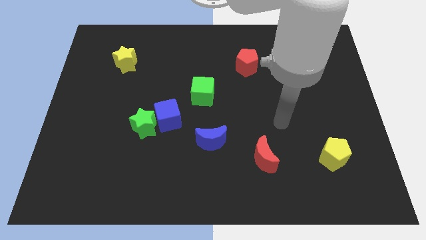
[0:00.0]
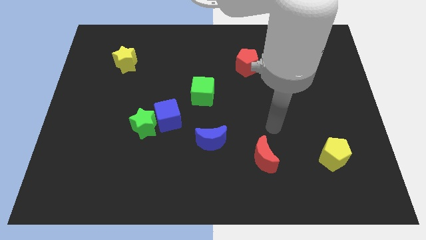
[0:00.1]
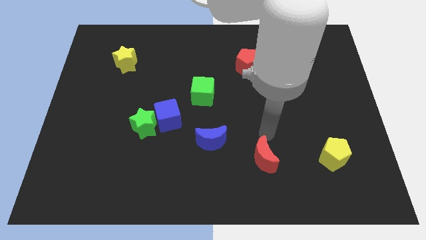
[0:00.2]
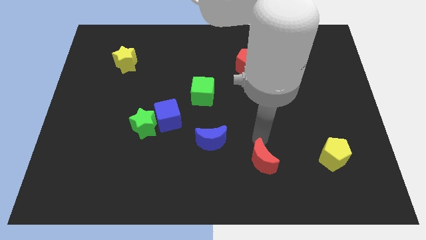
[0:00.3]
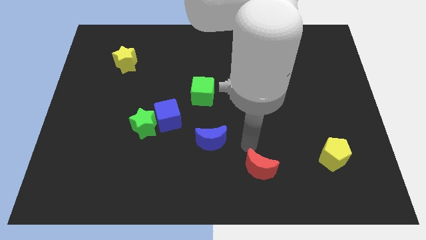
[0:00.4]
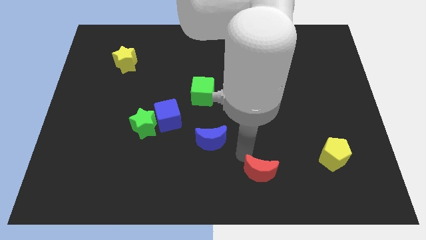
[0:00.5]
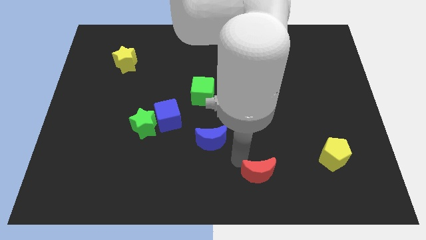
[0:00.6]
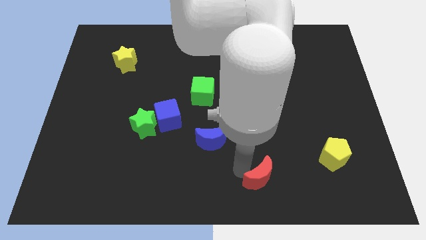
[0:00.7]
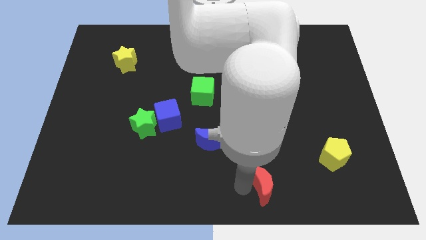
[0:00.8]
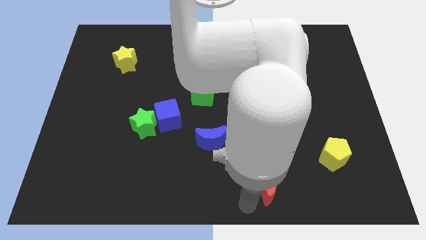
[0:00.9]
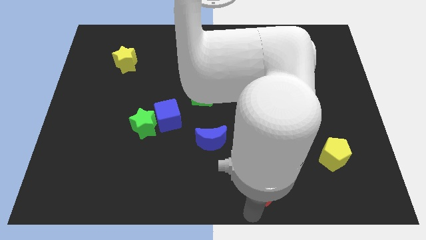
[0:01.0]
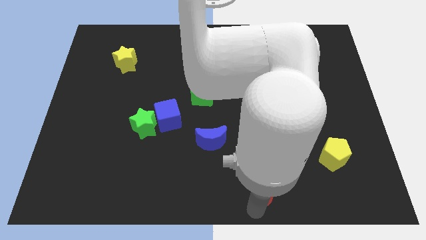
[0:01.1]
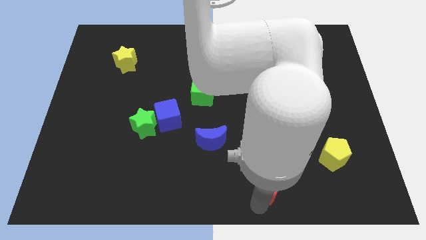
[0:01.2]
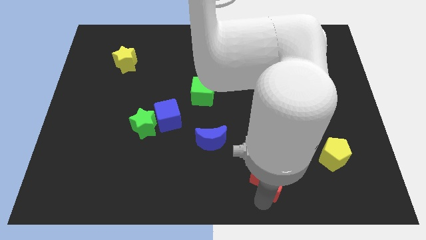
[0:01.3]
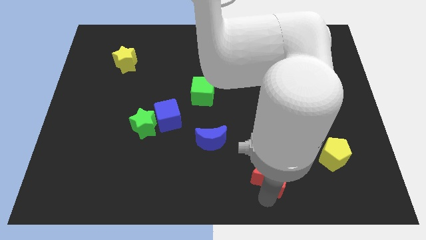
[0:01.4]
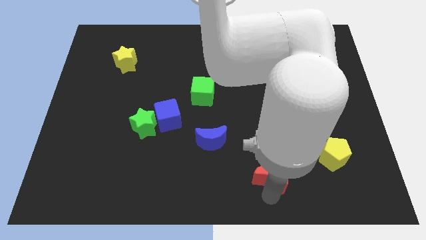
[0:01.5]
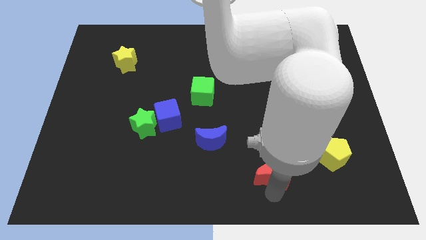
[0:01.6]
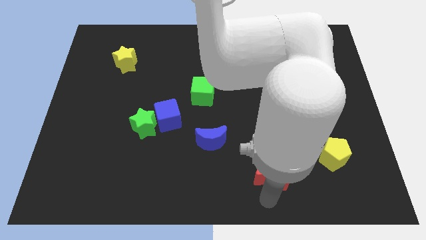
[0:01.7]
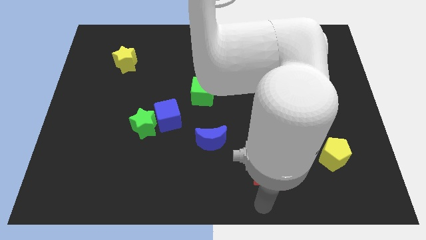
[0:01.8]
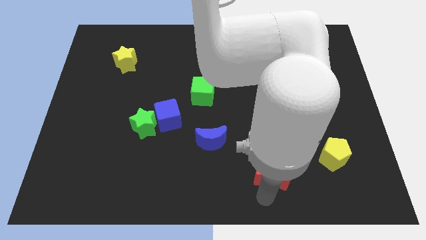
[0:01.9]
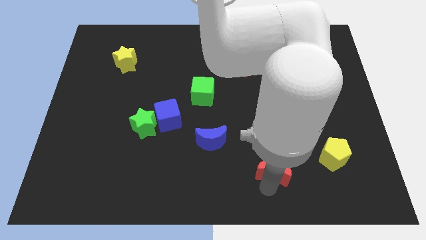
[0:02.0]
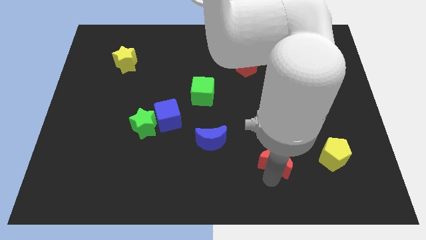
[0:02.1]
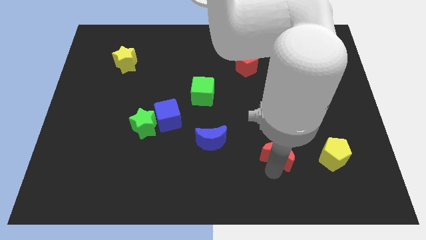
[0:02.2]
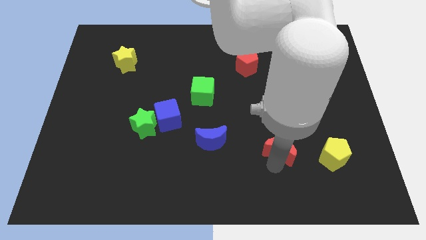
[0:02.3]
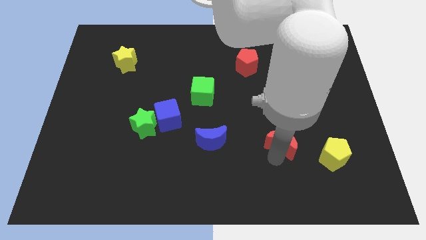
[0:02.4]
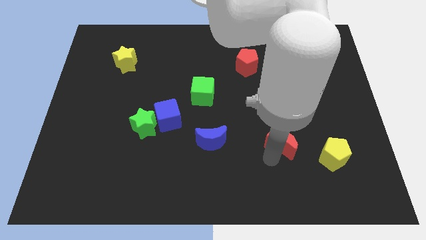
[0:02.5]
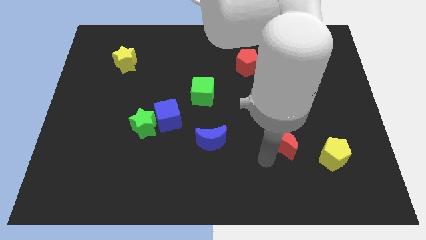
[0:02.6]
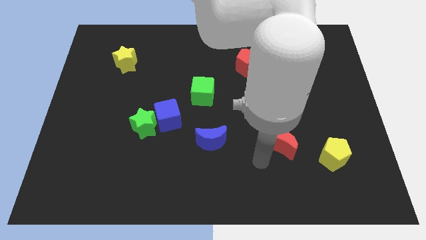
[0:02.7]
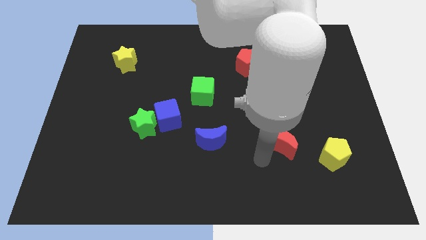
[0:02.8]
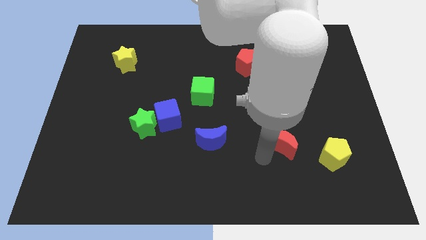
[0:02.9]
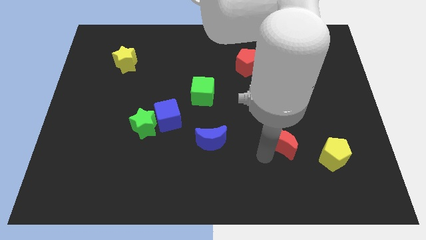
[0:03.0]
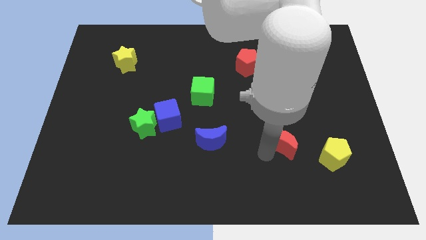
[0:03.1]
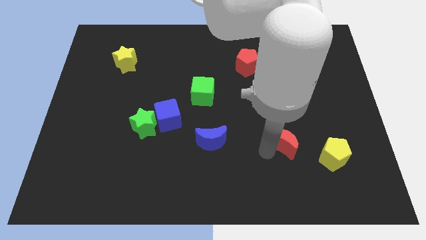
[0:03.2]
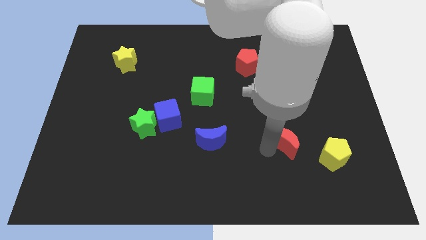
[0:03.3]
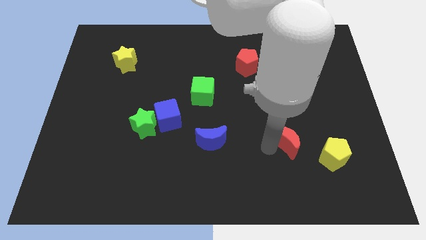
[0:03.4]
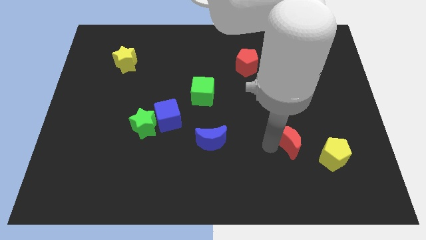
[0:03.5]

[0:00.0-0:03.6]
push the red moon upwards and to the right a bit

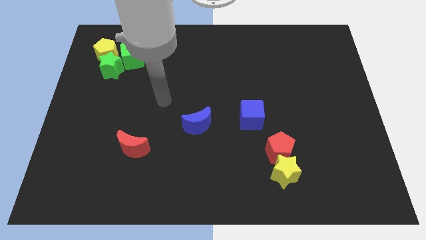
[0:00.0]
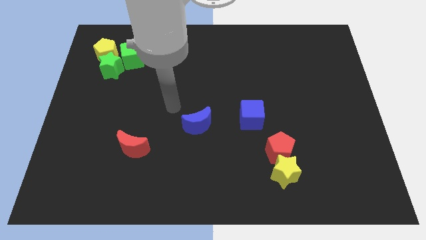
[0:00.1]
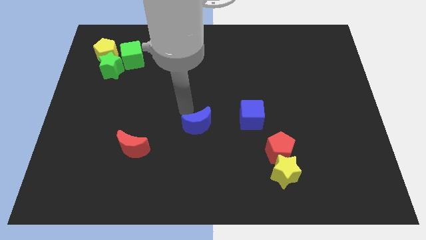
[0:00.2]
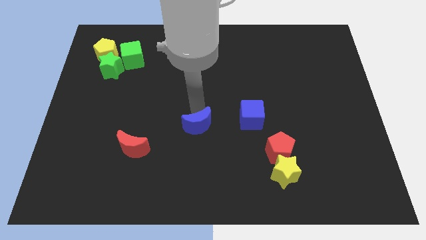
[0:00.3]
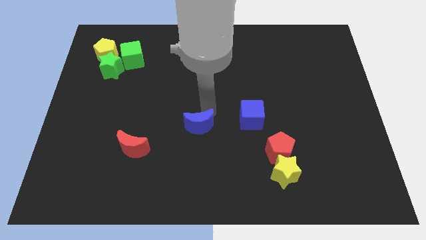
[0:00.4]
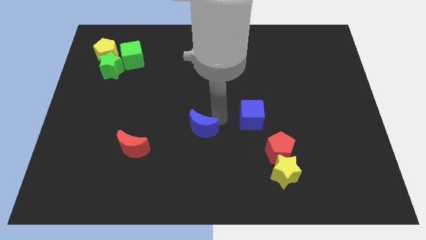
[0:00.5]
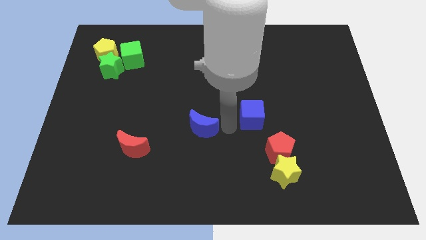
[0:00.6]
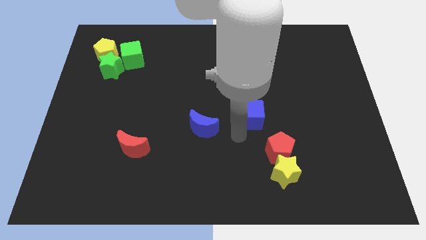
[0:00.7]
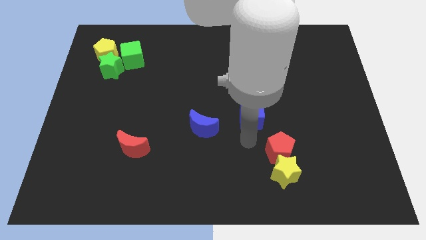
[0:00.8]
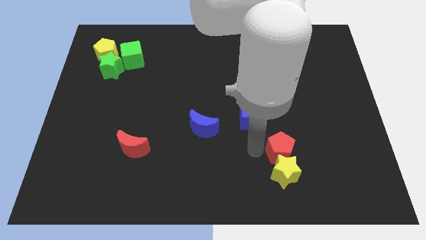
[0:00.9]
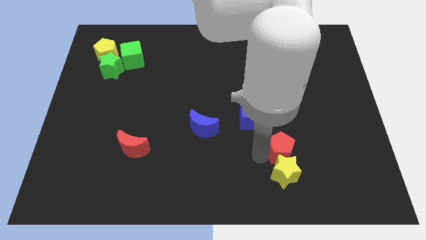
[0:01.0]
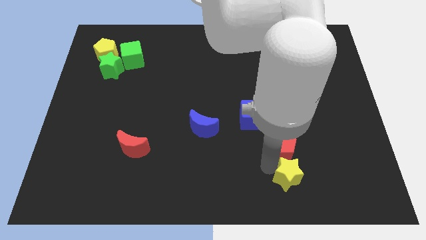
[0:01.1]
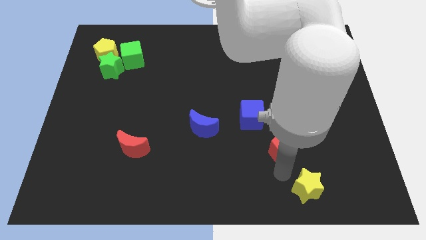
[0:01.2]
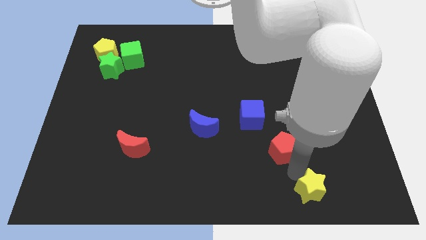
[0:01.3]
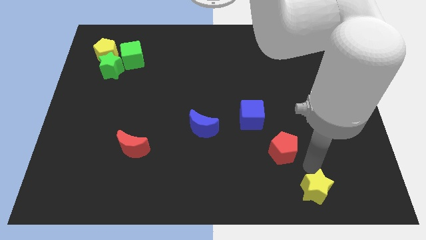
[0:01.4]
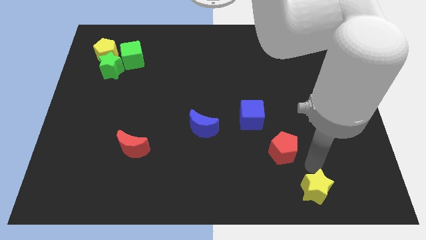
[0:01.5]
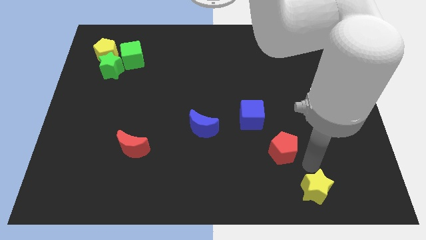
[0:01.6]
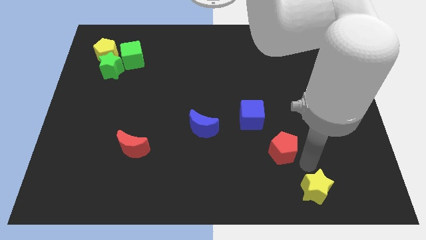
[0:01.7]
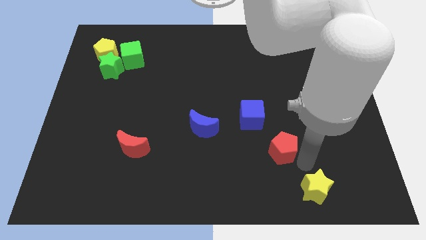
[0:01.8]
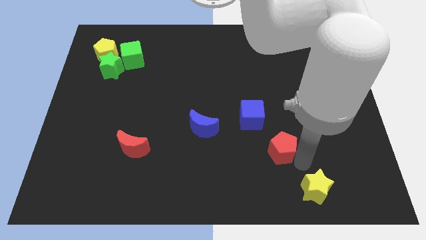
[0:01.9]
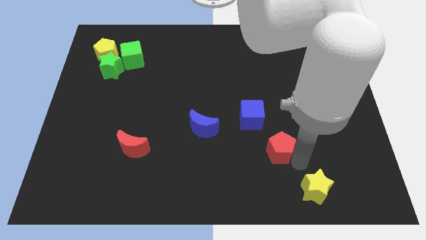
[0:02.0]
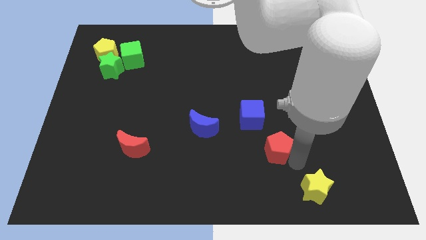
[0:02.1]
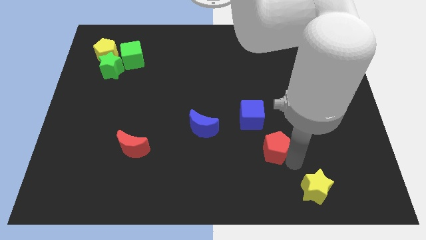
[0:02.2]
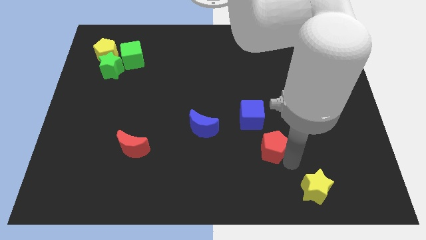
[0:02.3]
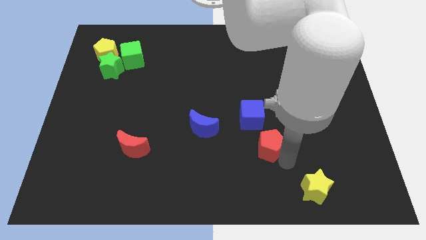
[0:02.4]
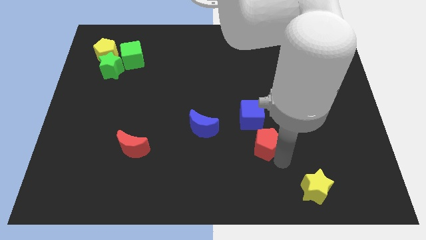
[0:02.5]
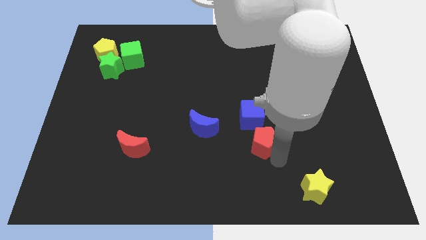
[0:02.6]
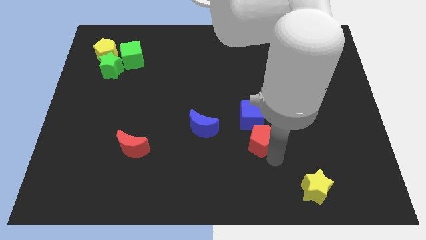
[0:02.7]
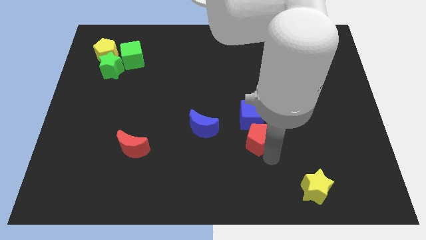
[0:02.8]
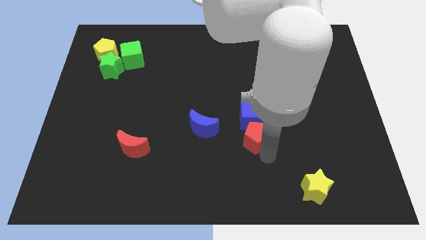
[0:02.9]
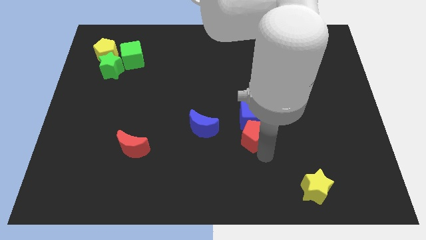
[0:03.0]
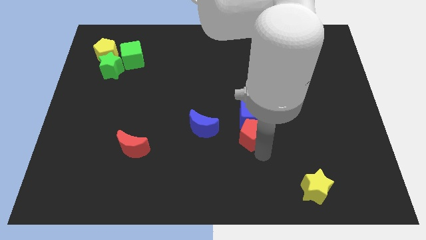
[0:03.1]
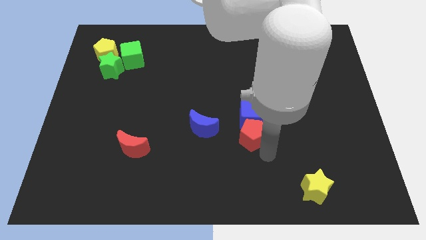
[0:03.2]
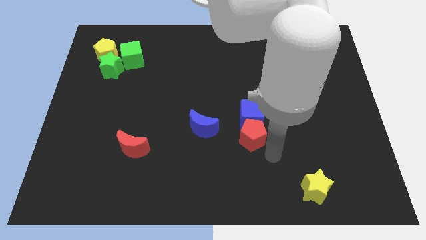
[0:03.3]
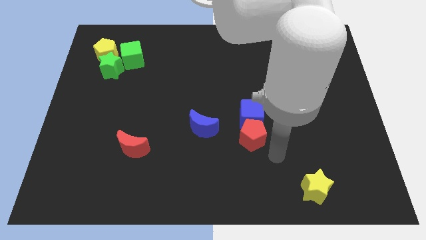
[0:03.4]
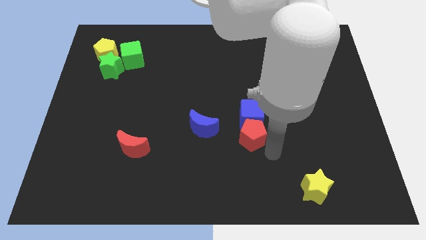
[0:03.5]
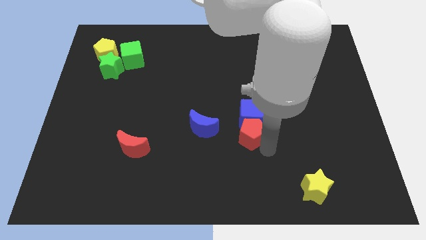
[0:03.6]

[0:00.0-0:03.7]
slightly push the red pentagon diagonally upwards and to the left

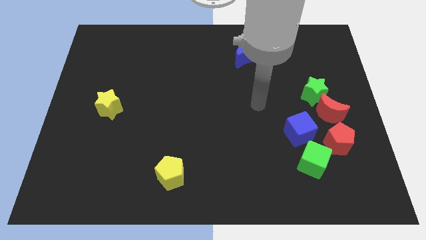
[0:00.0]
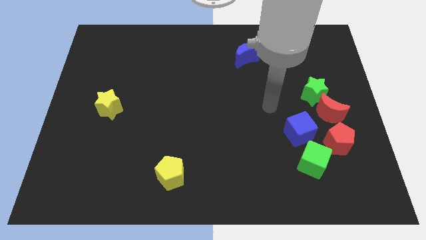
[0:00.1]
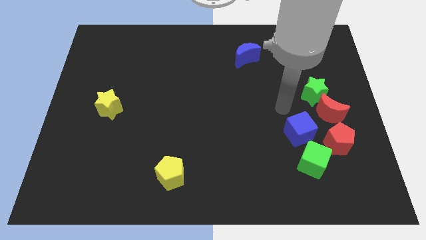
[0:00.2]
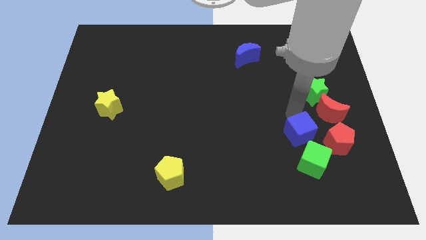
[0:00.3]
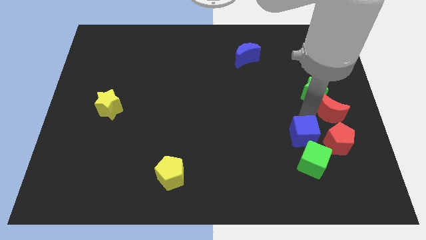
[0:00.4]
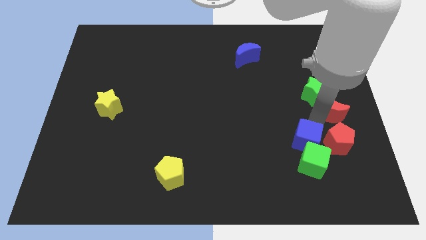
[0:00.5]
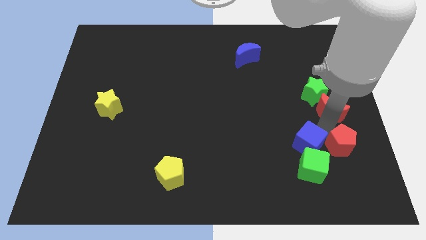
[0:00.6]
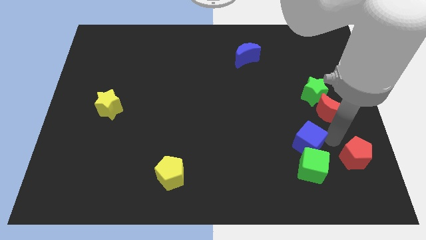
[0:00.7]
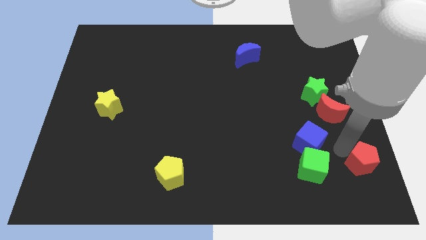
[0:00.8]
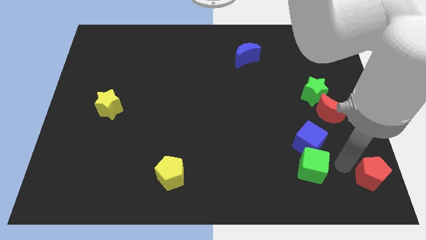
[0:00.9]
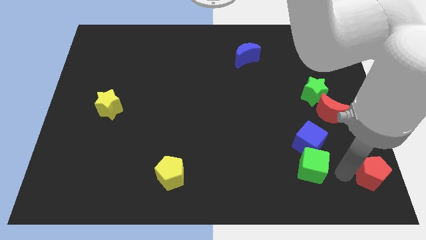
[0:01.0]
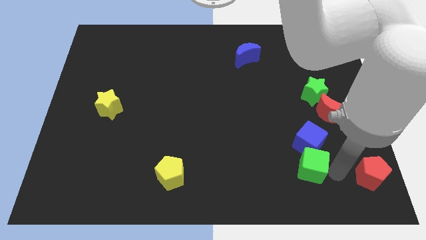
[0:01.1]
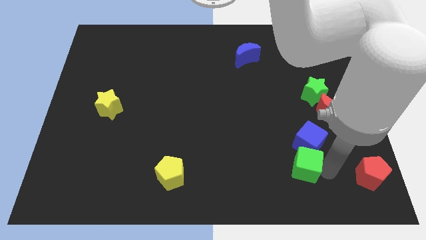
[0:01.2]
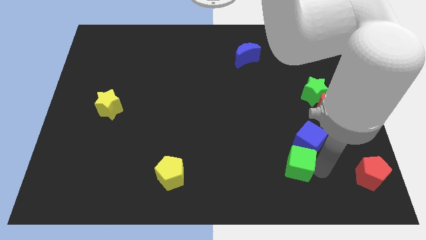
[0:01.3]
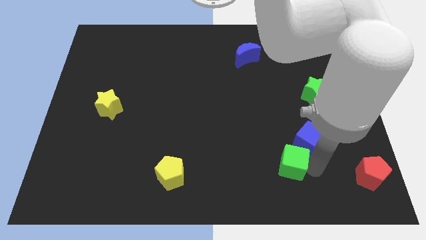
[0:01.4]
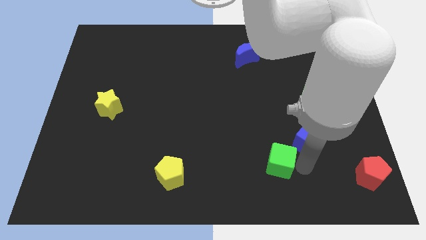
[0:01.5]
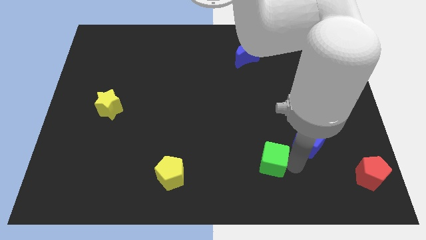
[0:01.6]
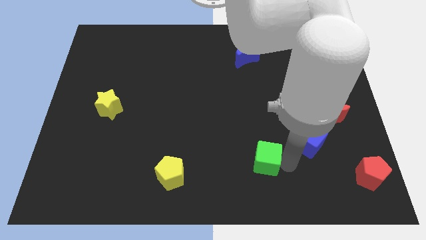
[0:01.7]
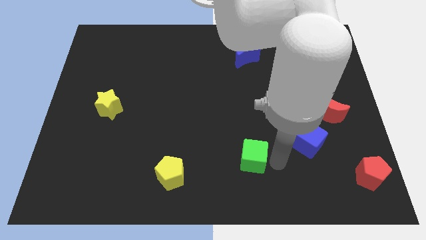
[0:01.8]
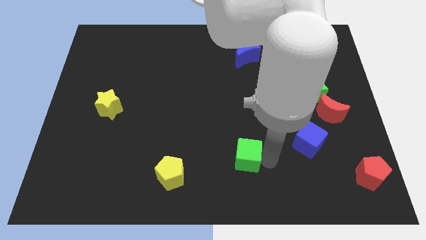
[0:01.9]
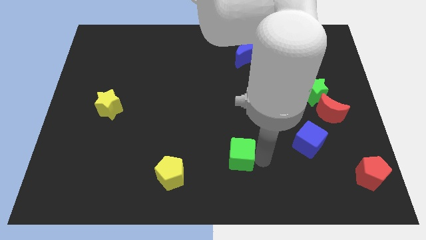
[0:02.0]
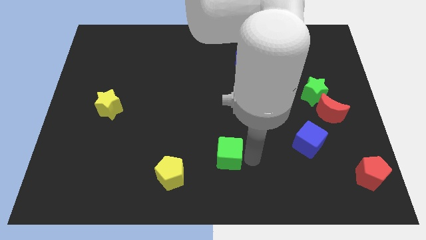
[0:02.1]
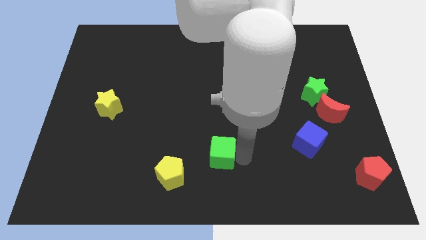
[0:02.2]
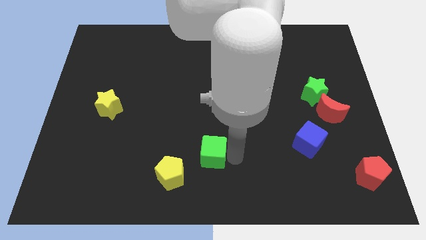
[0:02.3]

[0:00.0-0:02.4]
move the green cube left
